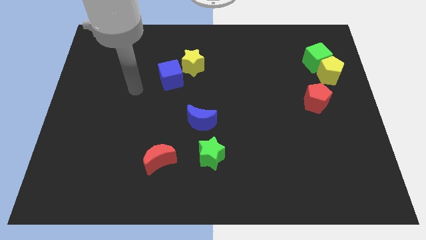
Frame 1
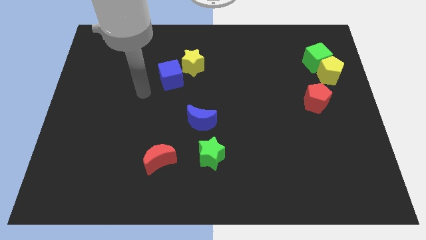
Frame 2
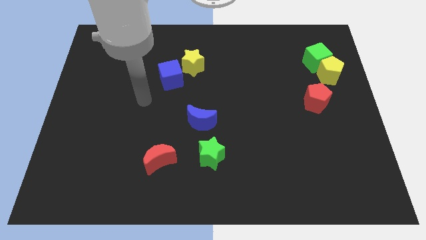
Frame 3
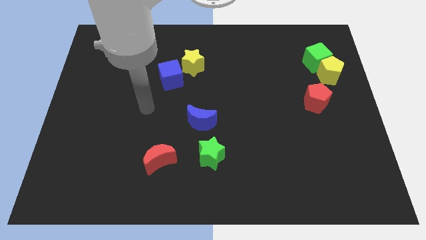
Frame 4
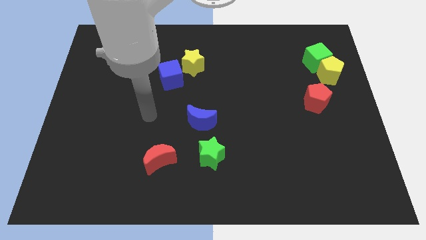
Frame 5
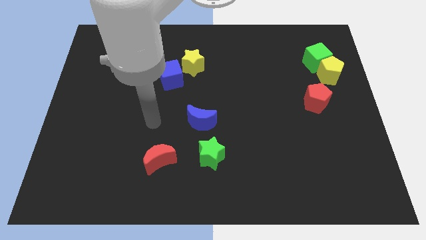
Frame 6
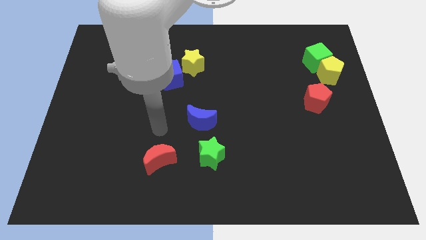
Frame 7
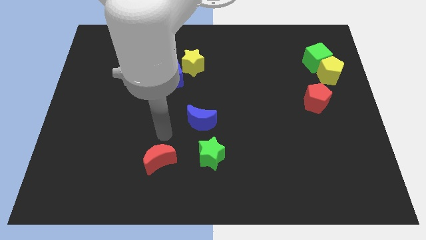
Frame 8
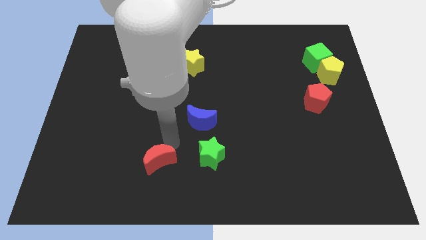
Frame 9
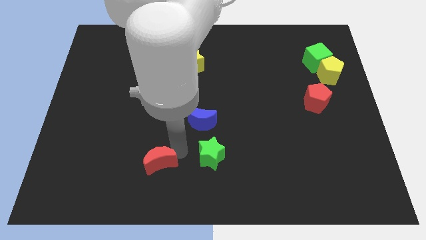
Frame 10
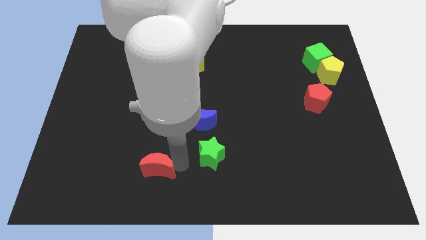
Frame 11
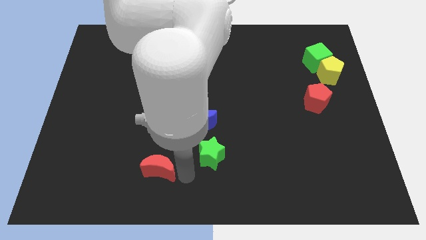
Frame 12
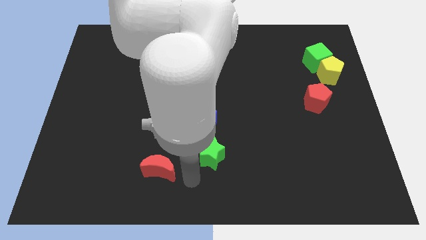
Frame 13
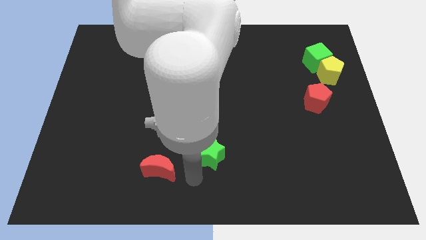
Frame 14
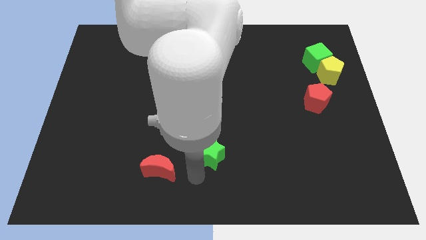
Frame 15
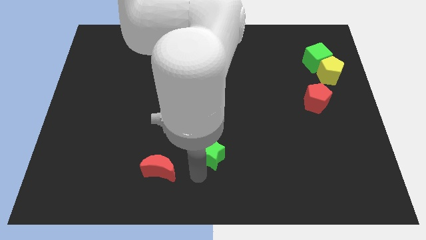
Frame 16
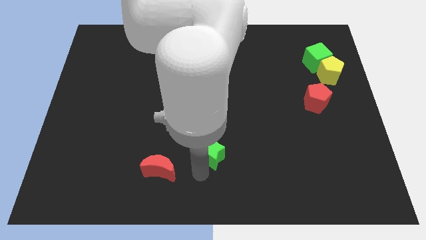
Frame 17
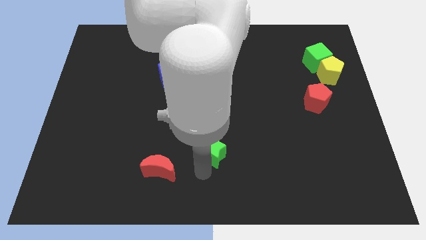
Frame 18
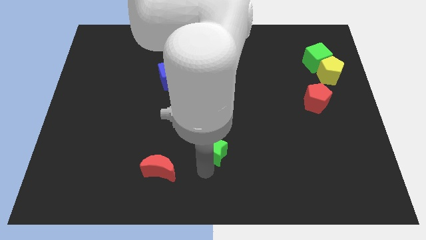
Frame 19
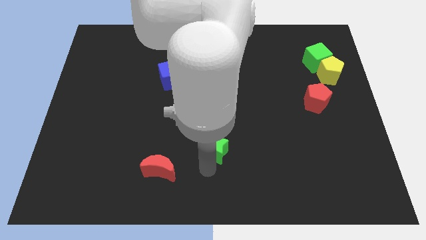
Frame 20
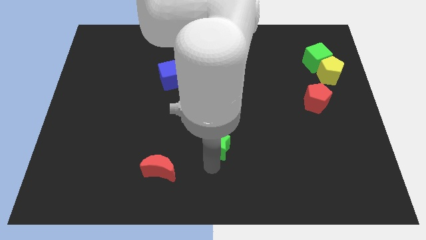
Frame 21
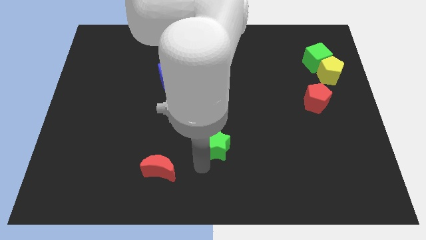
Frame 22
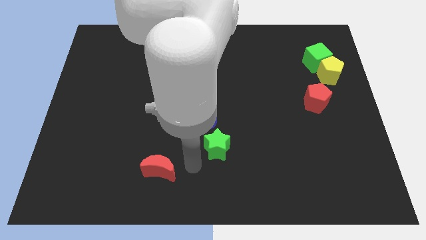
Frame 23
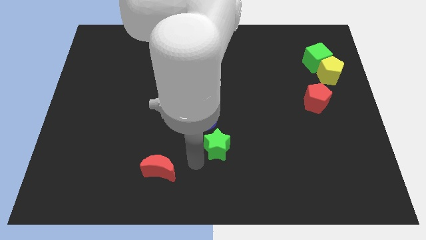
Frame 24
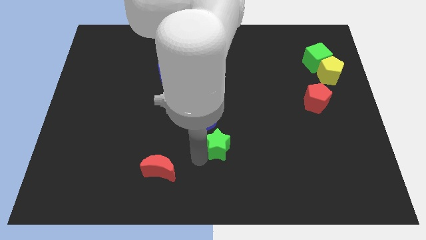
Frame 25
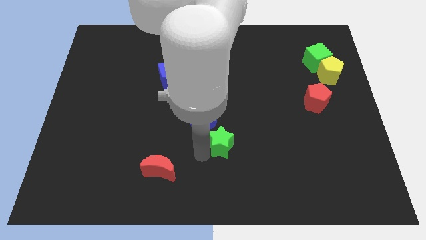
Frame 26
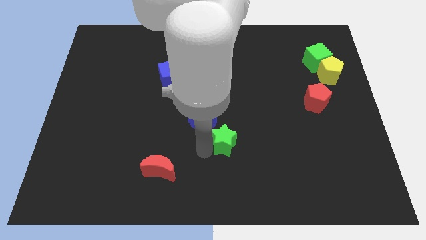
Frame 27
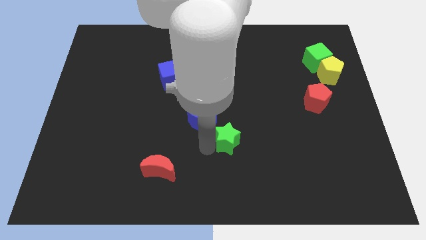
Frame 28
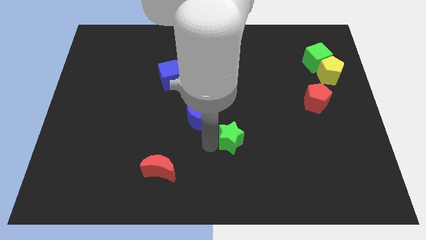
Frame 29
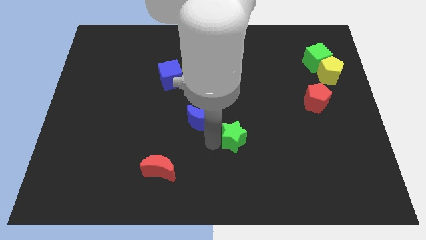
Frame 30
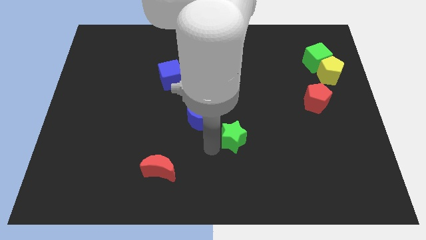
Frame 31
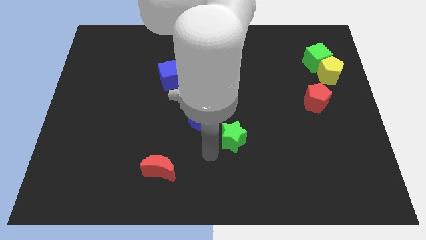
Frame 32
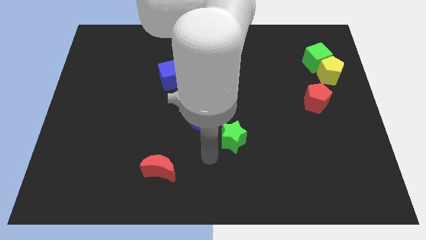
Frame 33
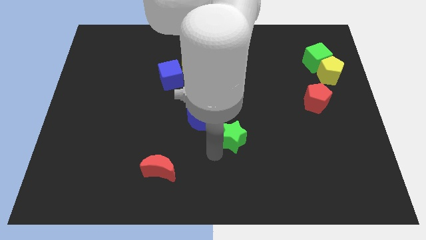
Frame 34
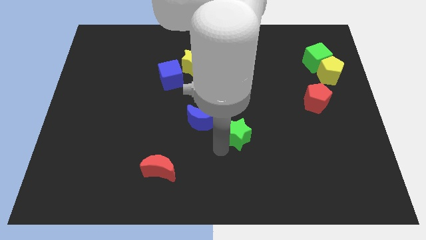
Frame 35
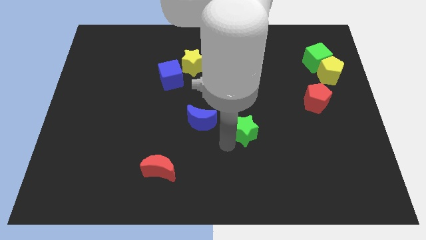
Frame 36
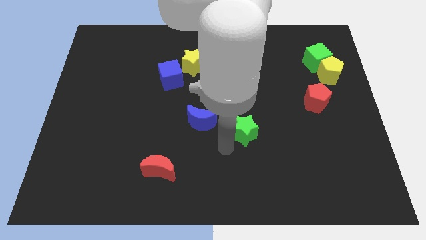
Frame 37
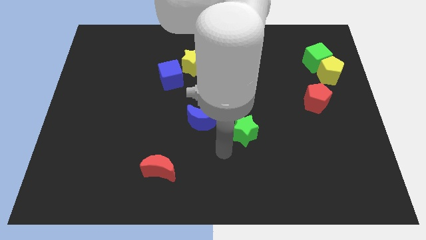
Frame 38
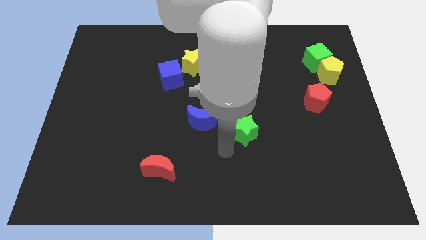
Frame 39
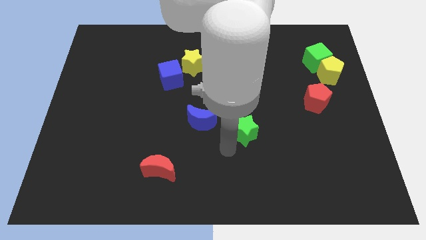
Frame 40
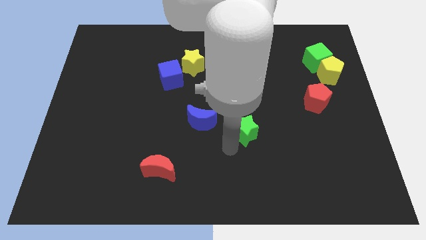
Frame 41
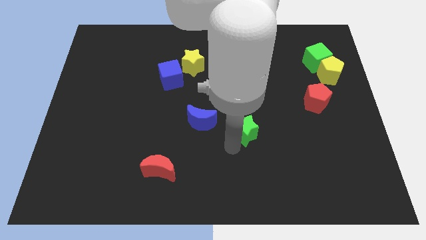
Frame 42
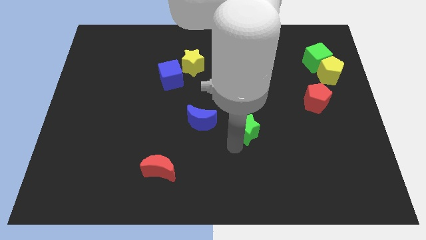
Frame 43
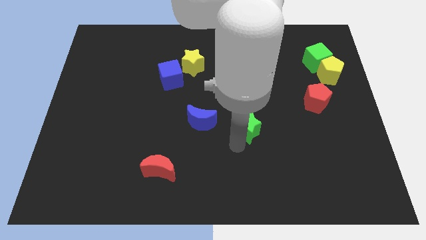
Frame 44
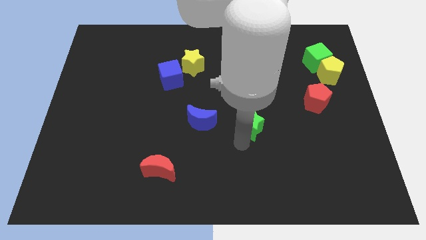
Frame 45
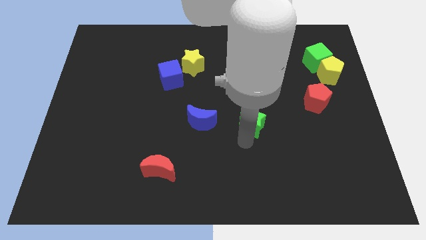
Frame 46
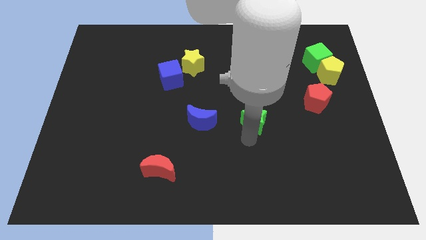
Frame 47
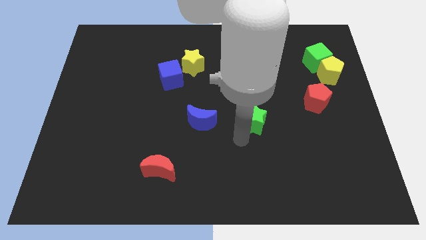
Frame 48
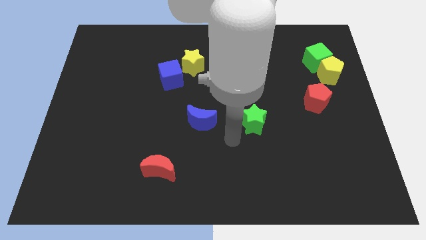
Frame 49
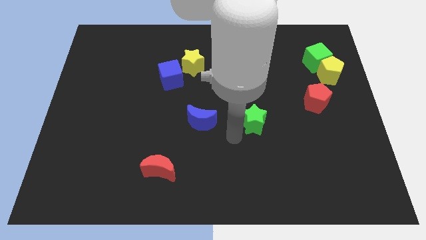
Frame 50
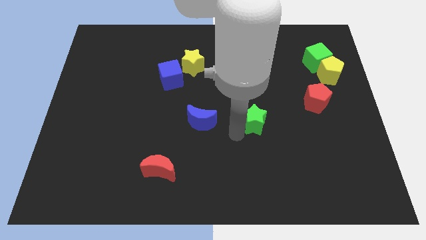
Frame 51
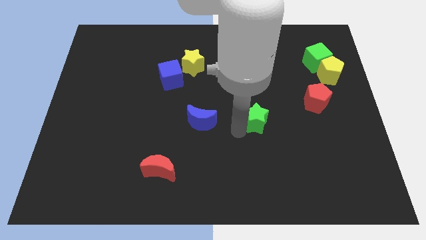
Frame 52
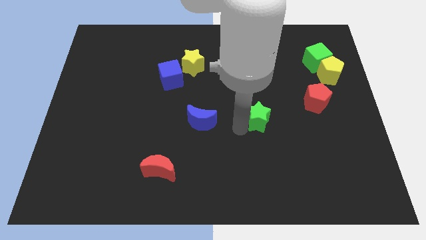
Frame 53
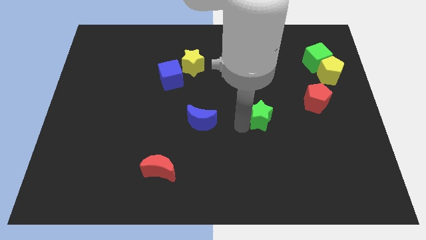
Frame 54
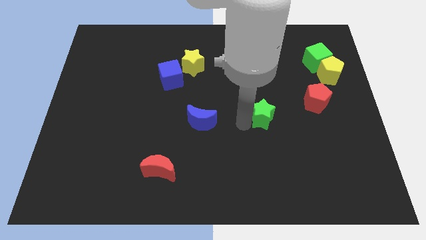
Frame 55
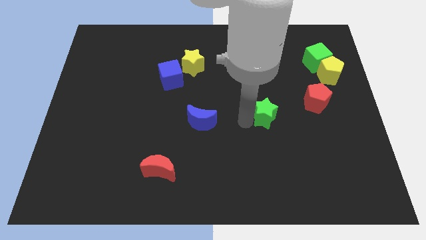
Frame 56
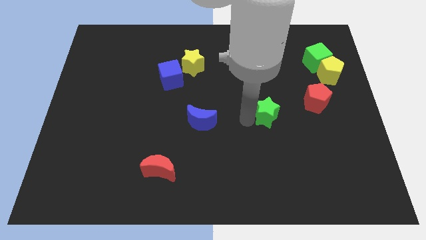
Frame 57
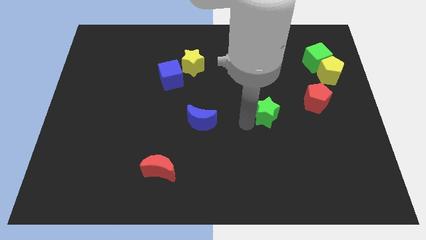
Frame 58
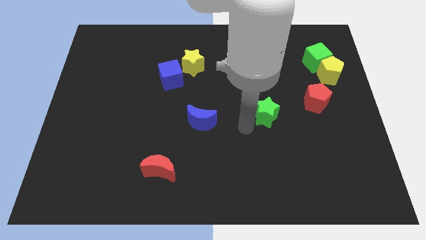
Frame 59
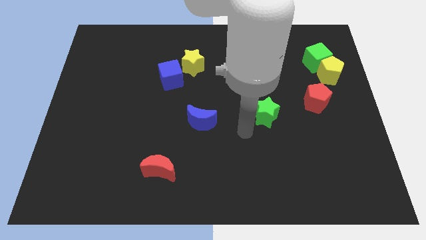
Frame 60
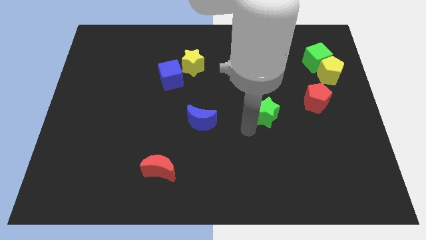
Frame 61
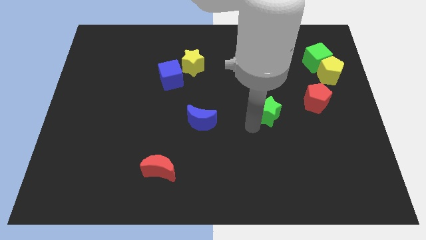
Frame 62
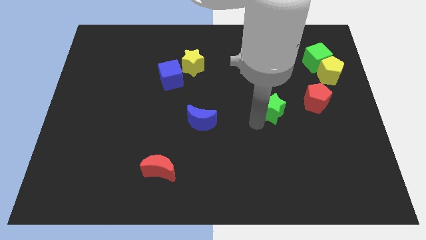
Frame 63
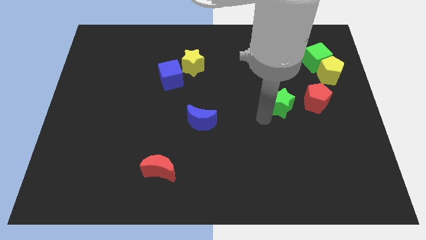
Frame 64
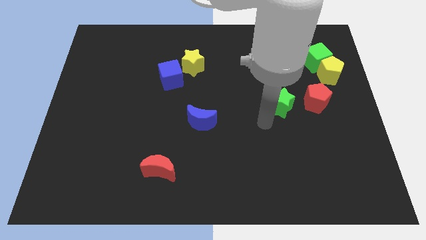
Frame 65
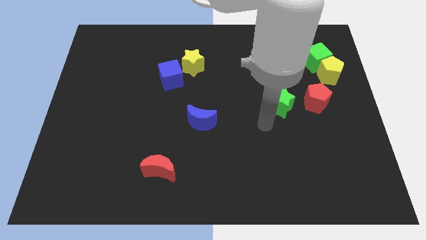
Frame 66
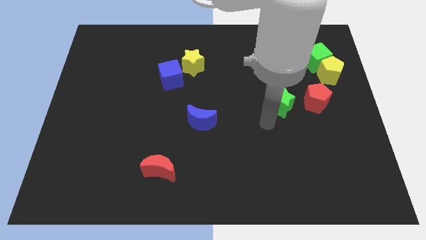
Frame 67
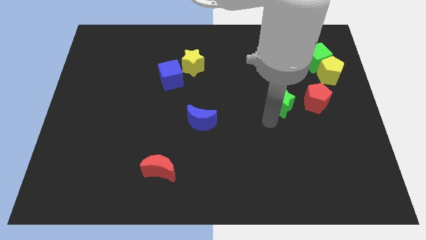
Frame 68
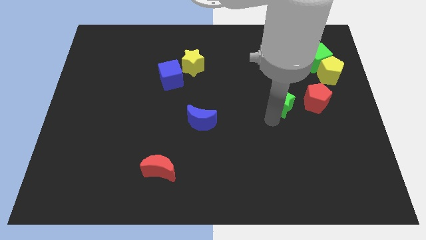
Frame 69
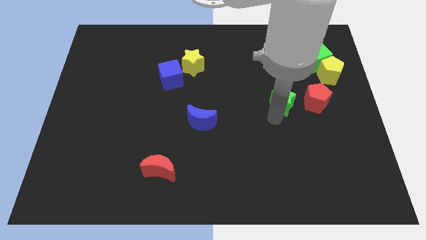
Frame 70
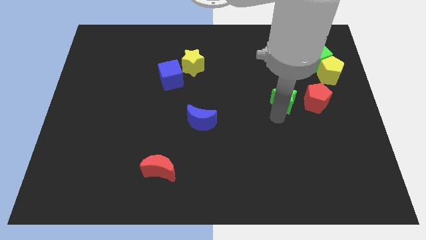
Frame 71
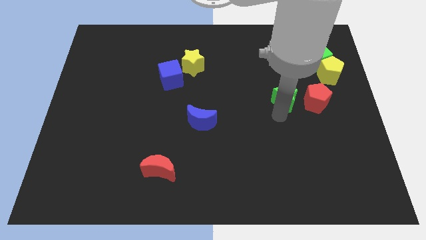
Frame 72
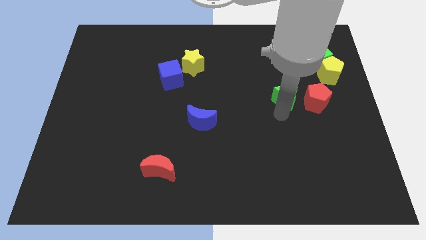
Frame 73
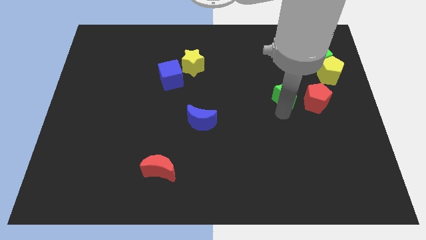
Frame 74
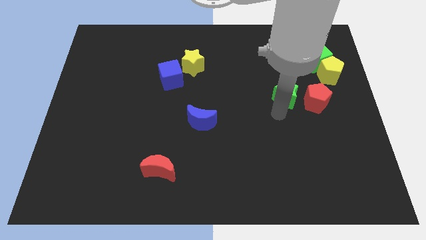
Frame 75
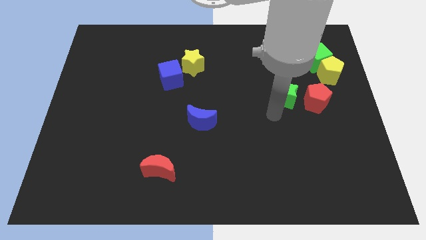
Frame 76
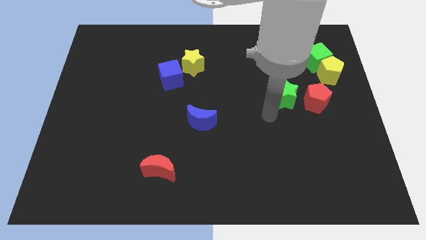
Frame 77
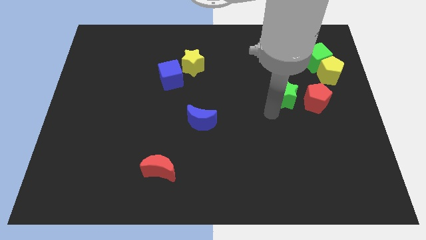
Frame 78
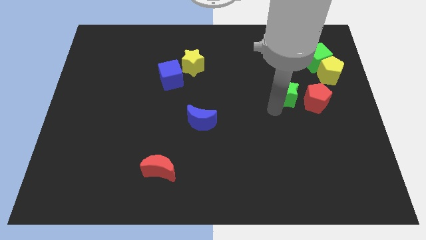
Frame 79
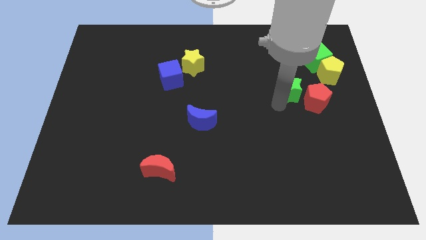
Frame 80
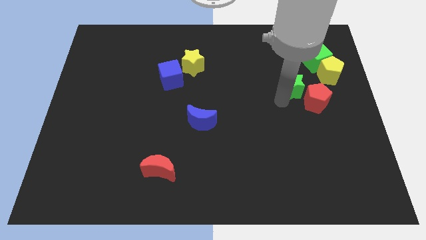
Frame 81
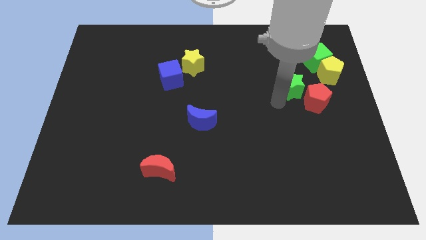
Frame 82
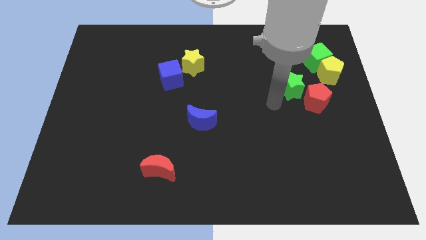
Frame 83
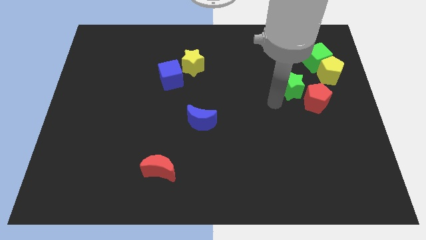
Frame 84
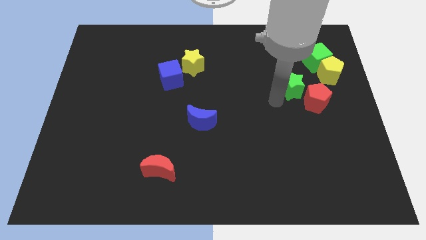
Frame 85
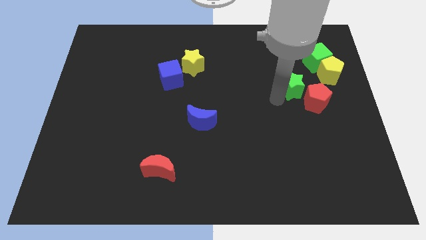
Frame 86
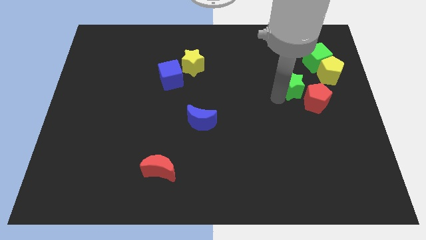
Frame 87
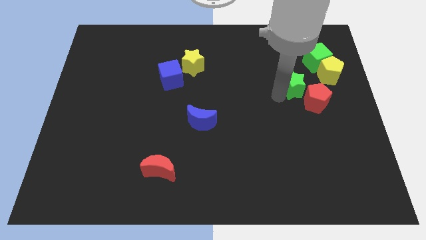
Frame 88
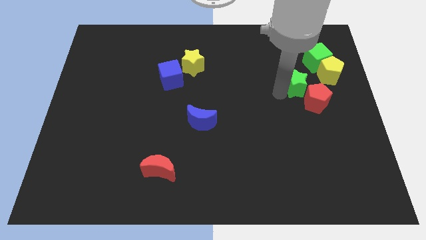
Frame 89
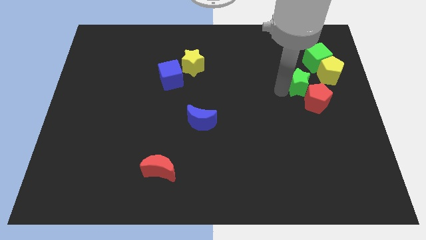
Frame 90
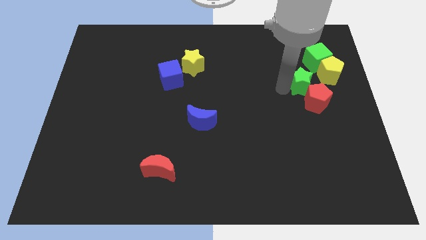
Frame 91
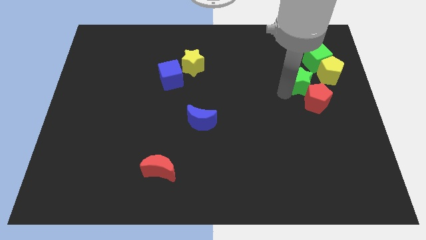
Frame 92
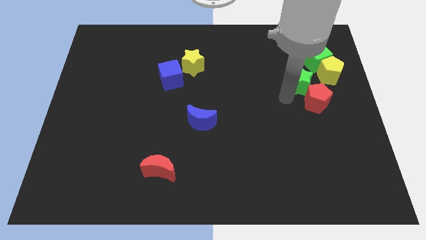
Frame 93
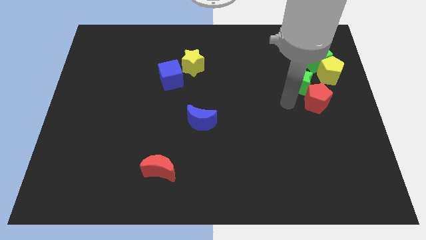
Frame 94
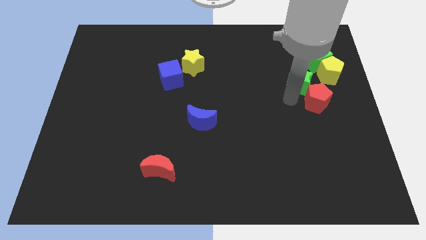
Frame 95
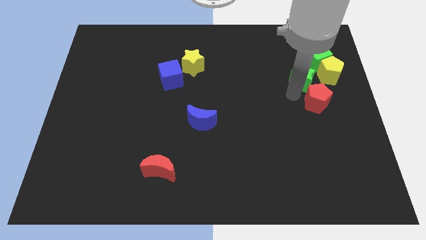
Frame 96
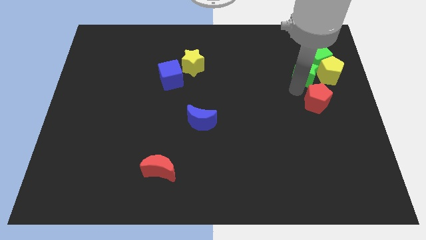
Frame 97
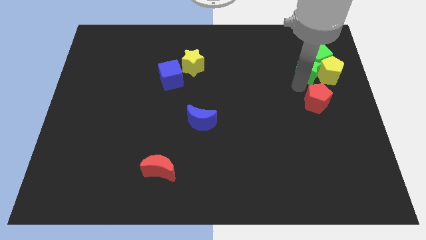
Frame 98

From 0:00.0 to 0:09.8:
put the green star towards the green cube
